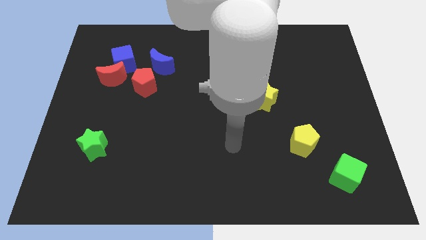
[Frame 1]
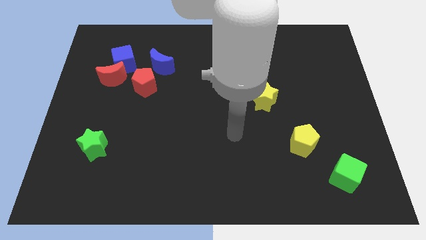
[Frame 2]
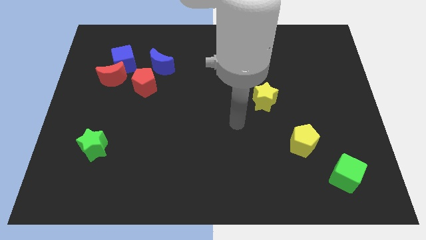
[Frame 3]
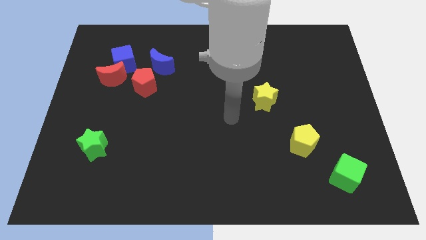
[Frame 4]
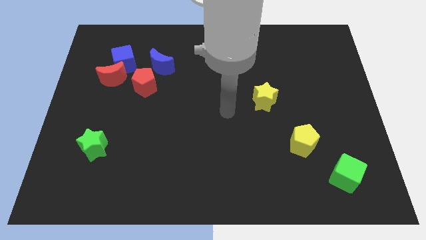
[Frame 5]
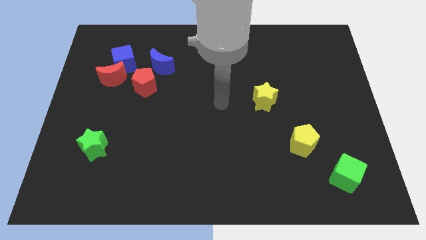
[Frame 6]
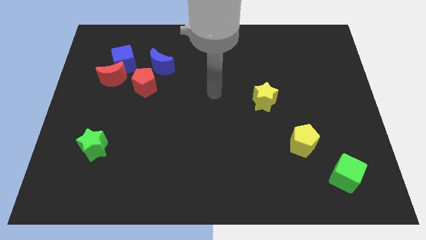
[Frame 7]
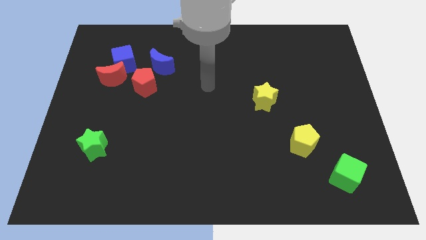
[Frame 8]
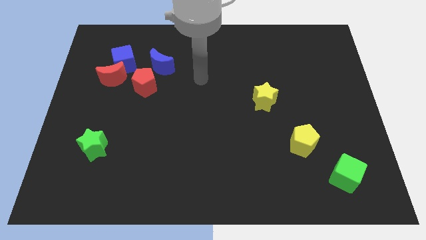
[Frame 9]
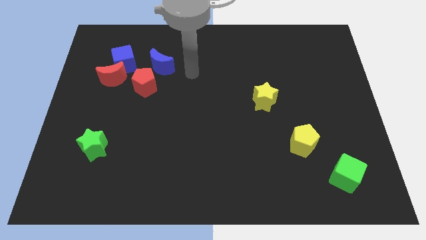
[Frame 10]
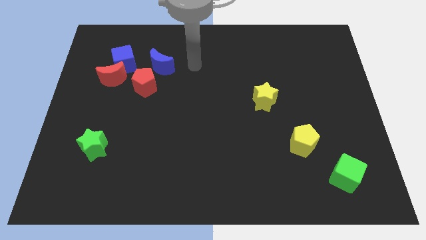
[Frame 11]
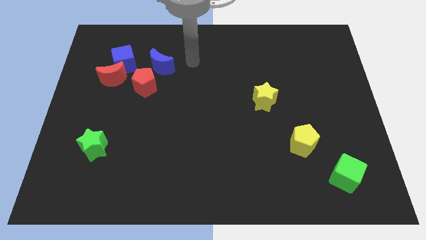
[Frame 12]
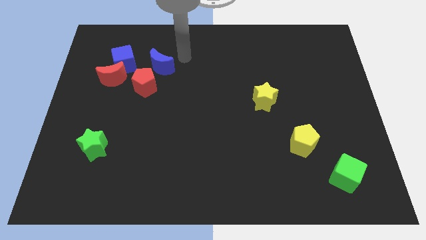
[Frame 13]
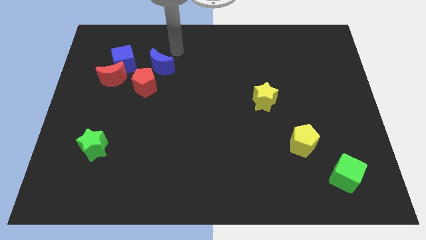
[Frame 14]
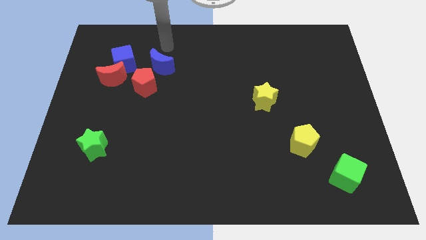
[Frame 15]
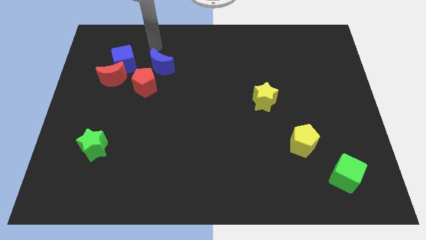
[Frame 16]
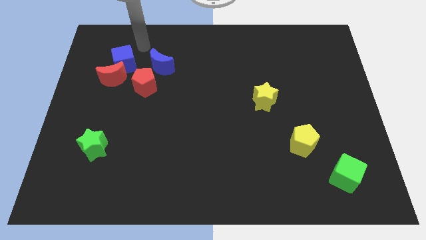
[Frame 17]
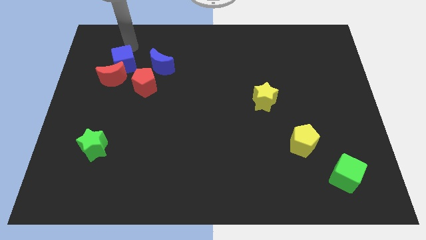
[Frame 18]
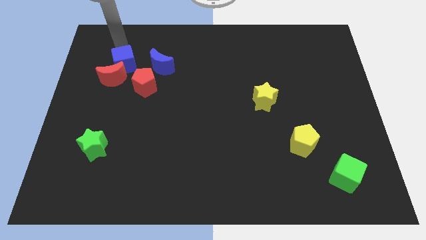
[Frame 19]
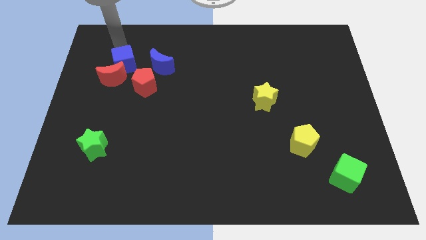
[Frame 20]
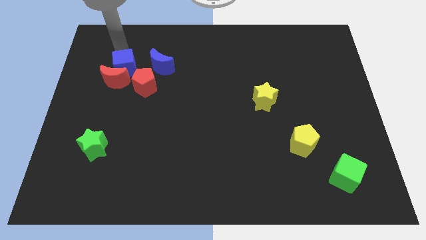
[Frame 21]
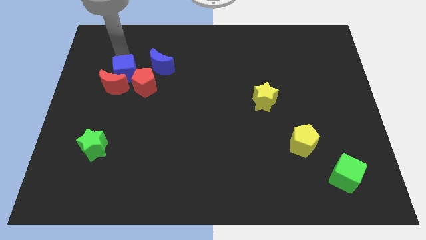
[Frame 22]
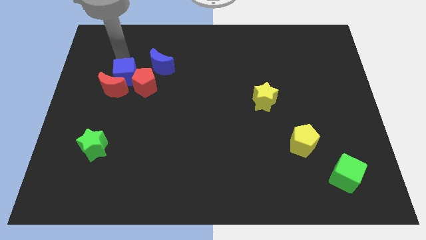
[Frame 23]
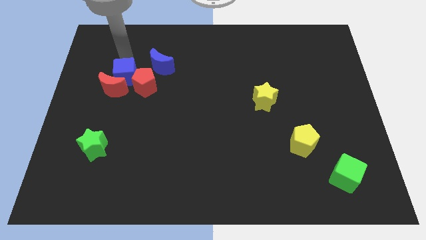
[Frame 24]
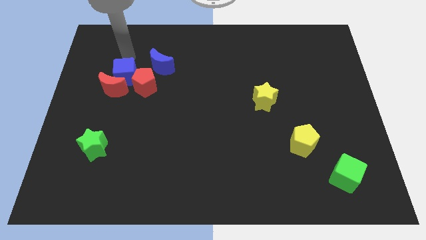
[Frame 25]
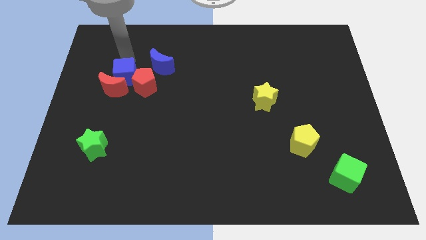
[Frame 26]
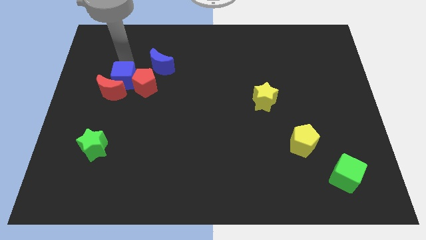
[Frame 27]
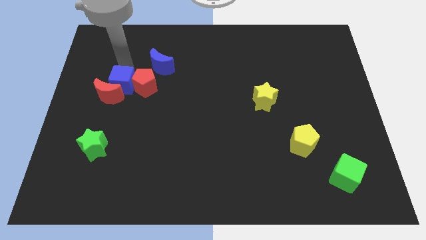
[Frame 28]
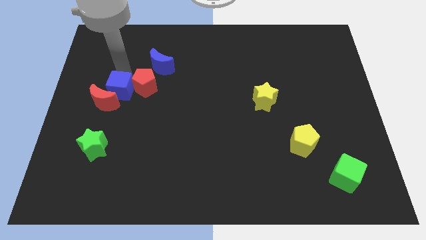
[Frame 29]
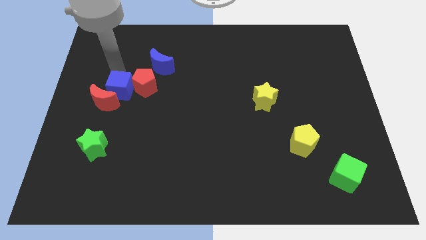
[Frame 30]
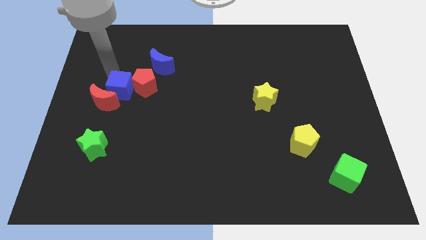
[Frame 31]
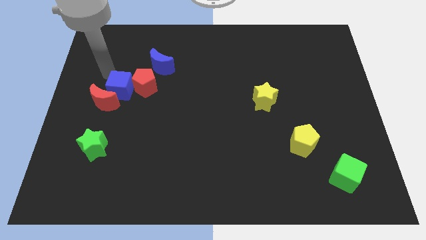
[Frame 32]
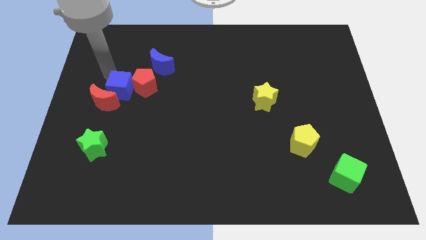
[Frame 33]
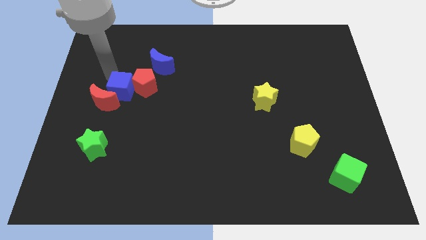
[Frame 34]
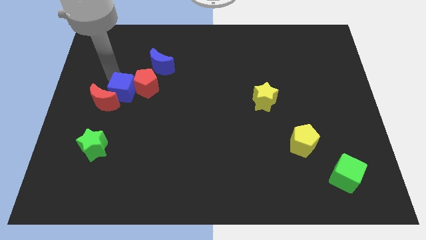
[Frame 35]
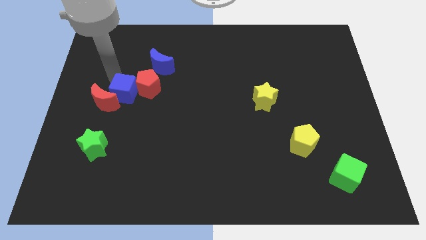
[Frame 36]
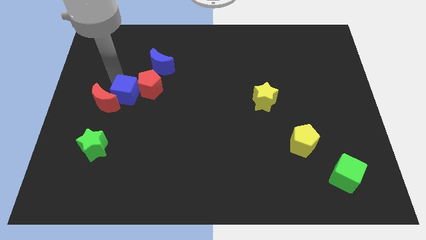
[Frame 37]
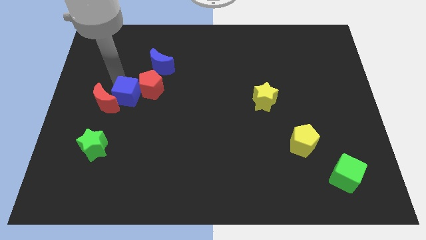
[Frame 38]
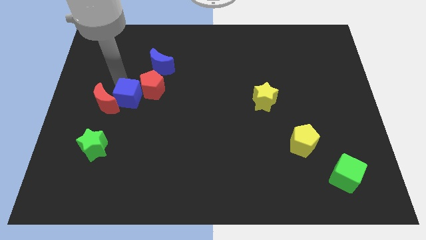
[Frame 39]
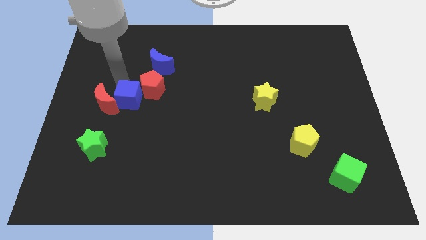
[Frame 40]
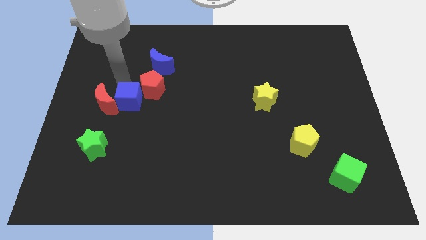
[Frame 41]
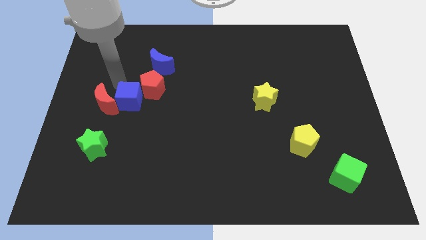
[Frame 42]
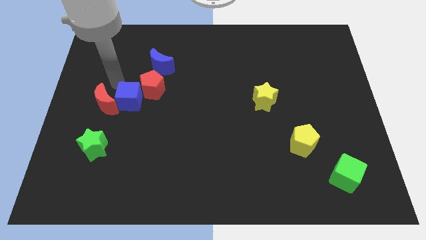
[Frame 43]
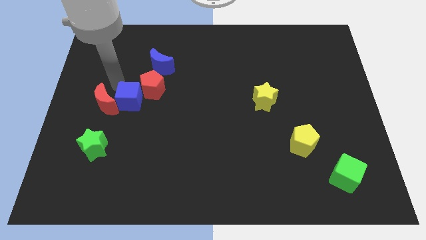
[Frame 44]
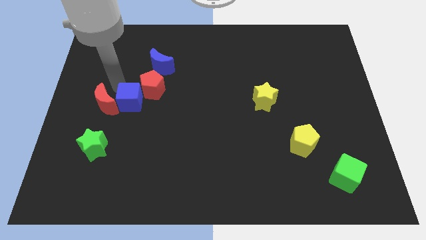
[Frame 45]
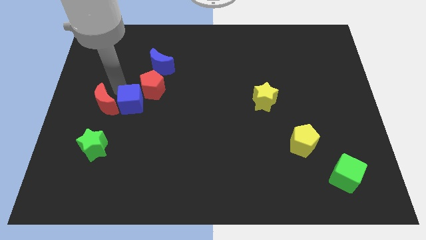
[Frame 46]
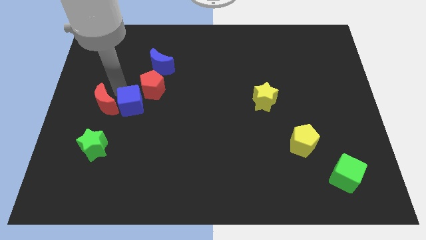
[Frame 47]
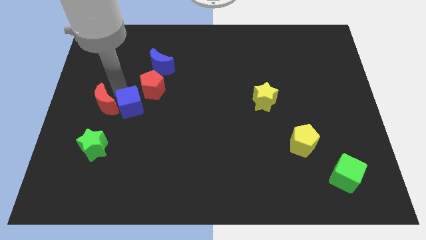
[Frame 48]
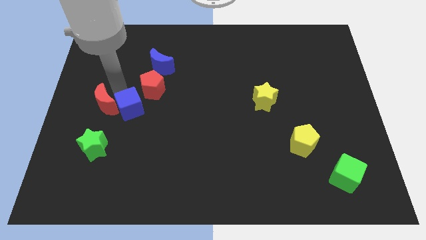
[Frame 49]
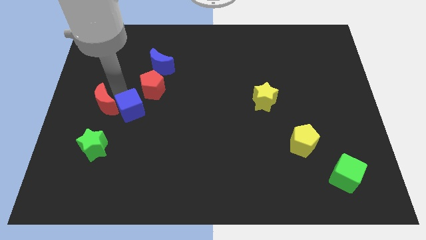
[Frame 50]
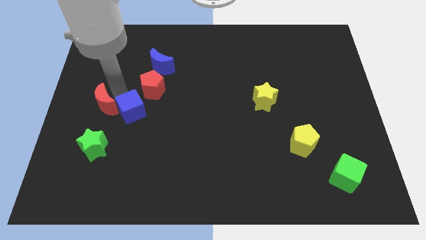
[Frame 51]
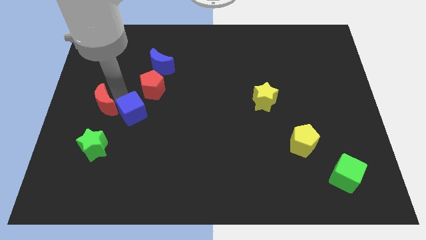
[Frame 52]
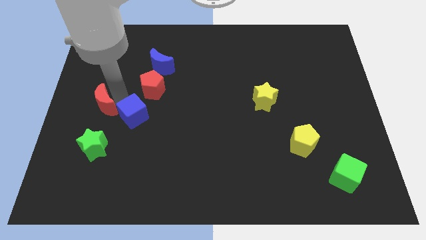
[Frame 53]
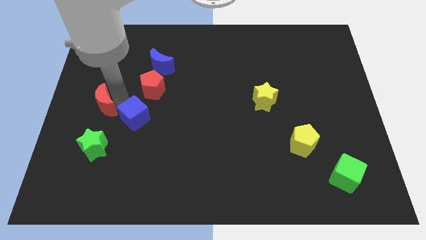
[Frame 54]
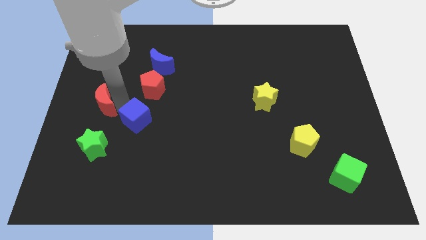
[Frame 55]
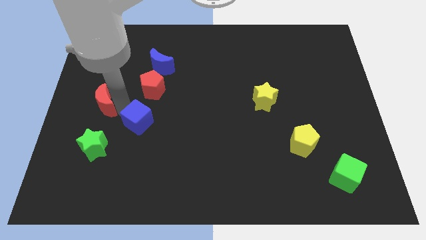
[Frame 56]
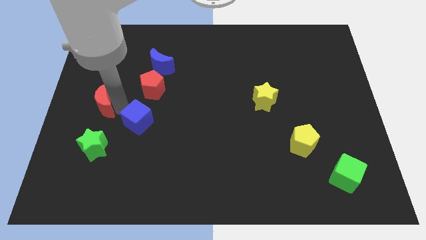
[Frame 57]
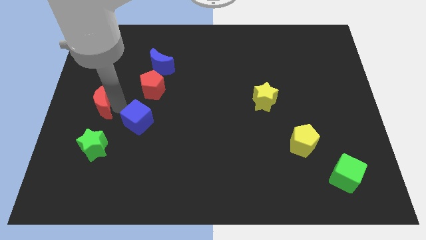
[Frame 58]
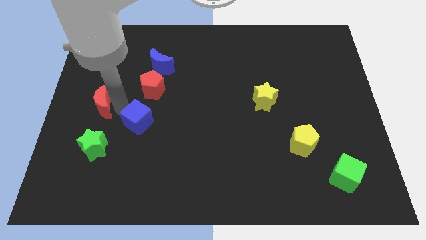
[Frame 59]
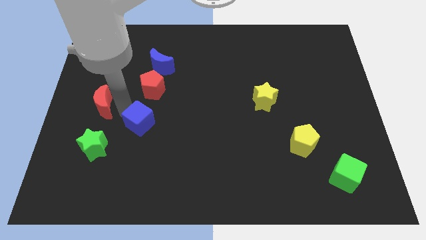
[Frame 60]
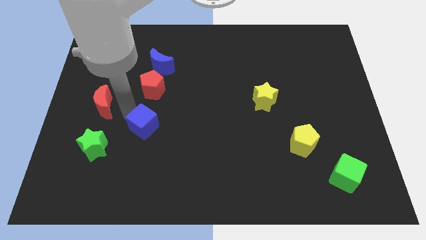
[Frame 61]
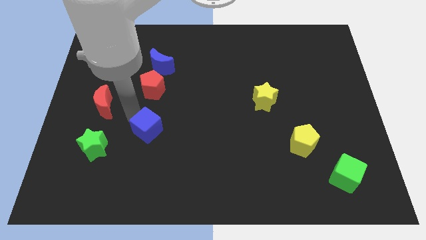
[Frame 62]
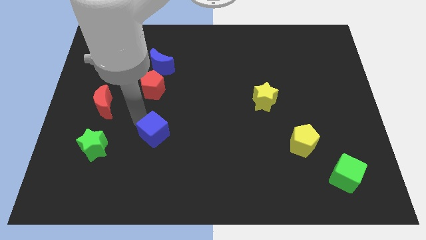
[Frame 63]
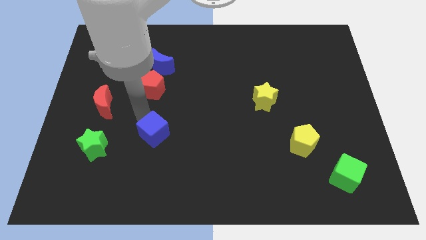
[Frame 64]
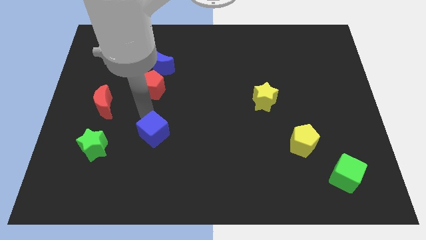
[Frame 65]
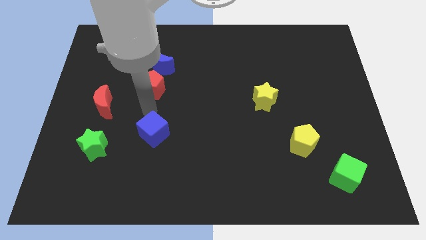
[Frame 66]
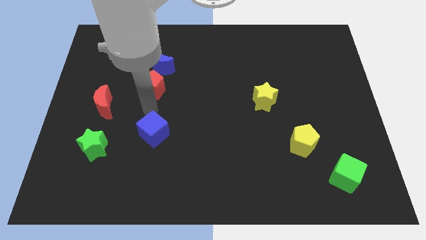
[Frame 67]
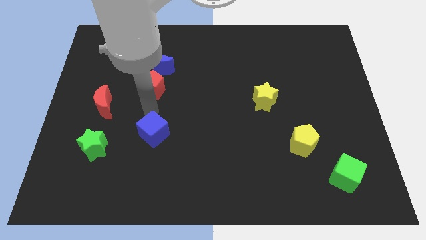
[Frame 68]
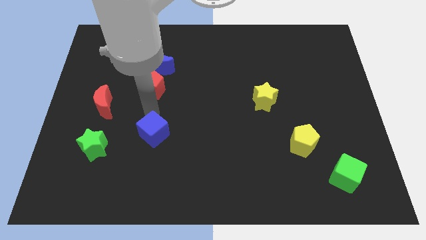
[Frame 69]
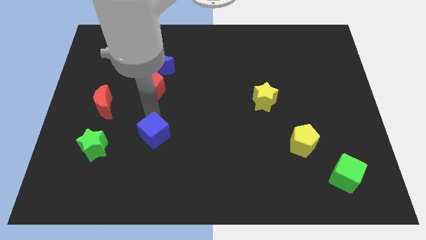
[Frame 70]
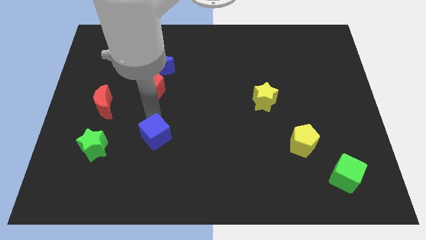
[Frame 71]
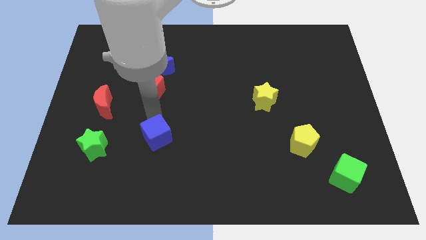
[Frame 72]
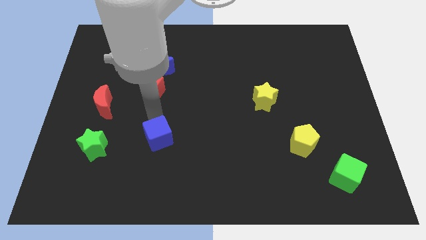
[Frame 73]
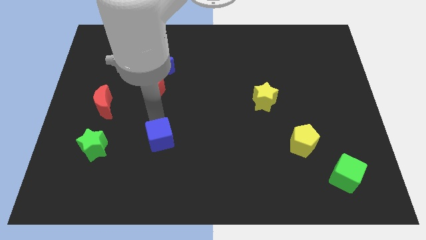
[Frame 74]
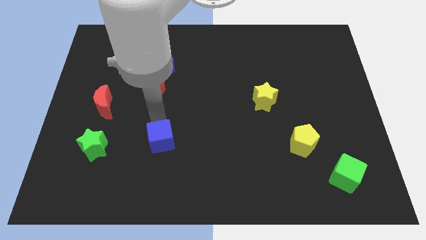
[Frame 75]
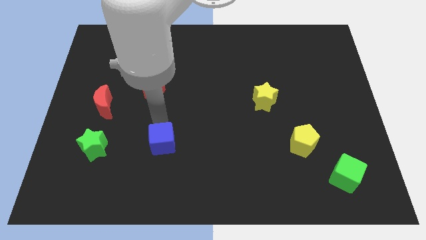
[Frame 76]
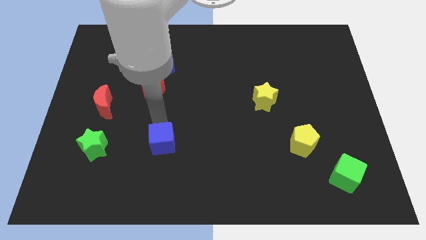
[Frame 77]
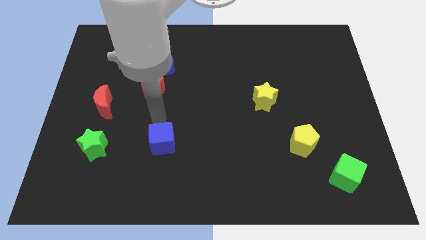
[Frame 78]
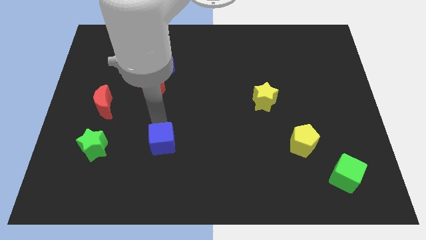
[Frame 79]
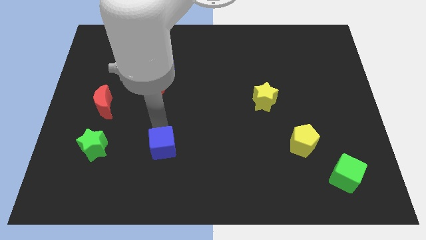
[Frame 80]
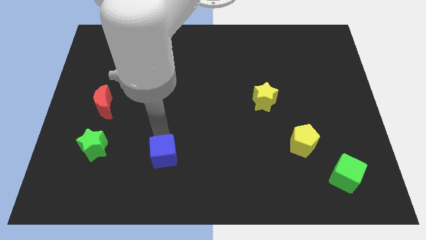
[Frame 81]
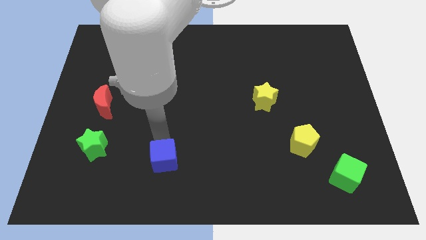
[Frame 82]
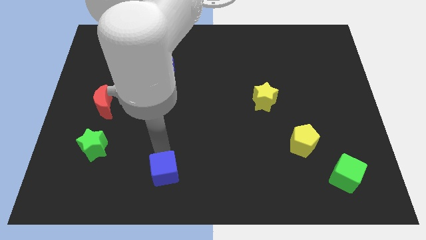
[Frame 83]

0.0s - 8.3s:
push the blue cube to the bottom
